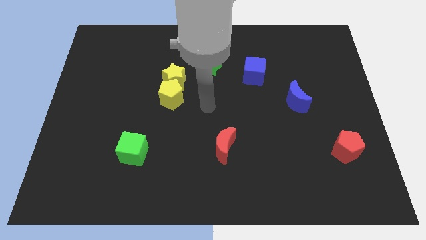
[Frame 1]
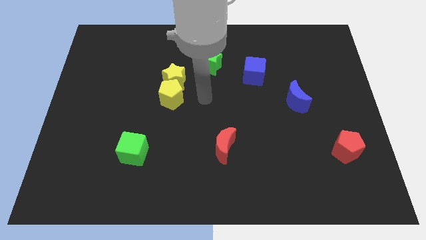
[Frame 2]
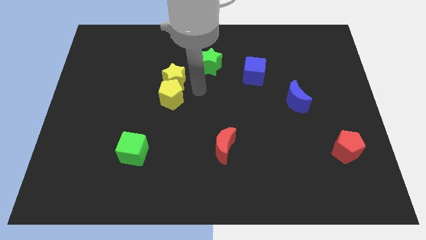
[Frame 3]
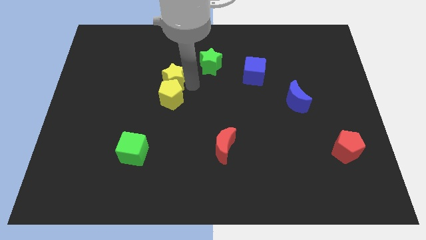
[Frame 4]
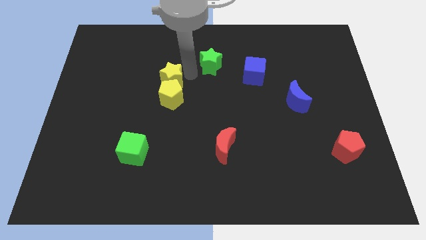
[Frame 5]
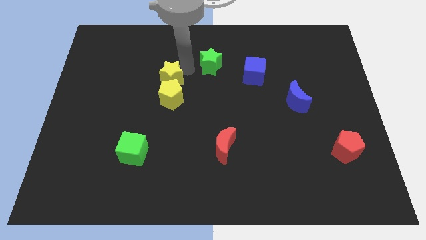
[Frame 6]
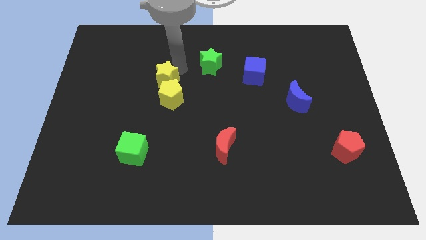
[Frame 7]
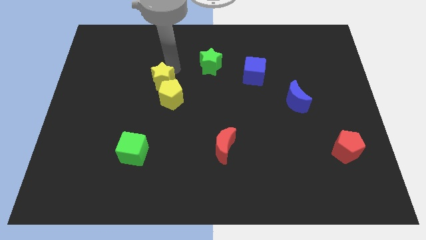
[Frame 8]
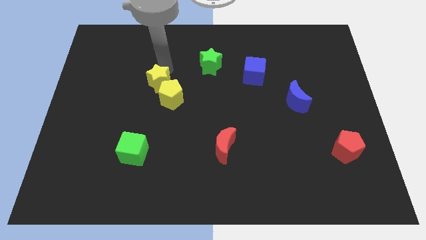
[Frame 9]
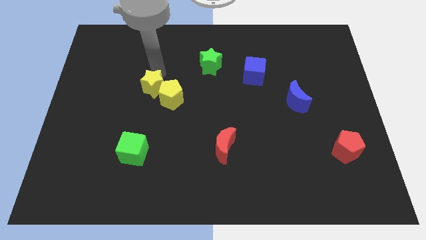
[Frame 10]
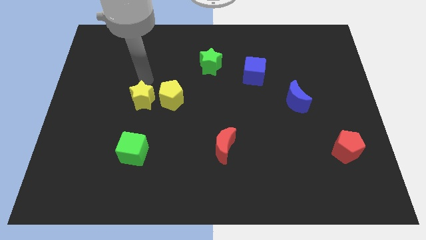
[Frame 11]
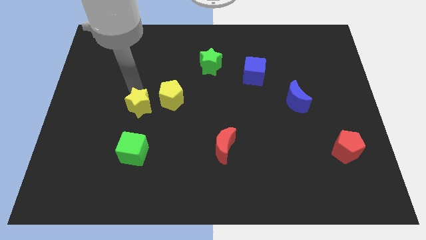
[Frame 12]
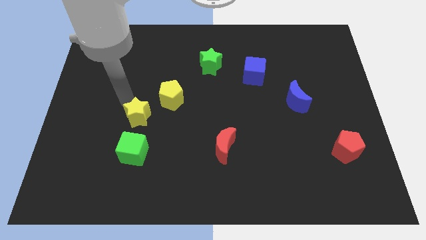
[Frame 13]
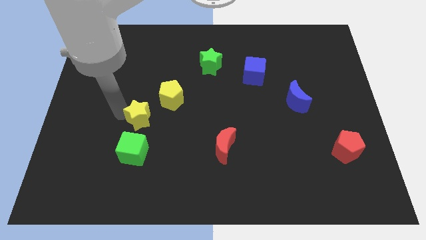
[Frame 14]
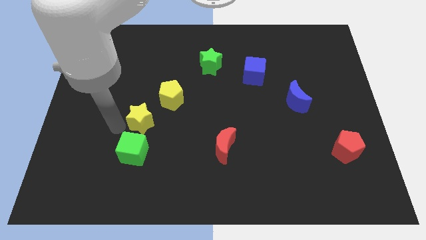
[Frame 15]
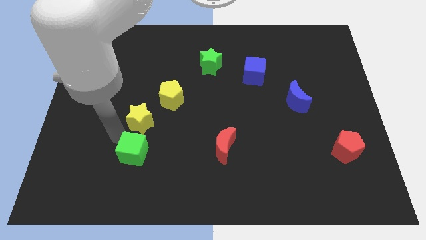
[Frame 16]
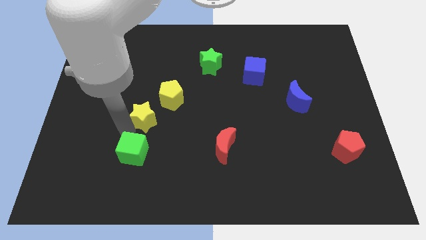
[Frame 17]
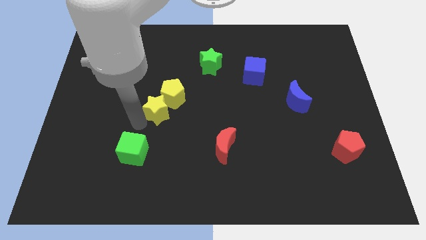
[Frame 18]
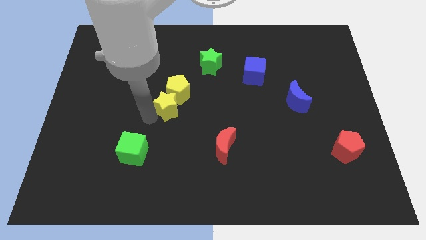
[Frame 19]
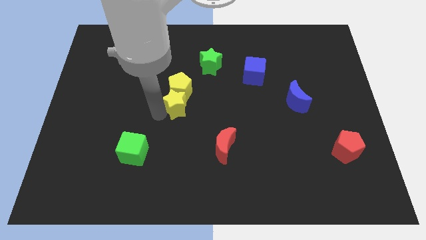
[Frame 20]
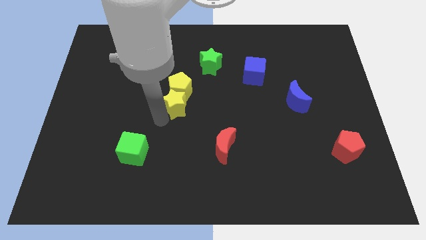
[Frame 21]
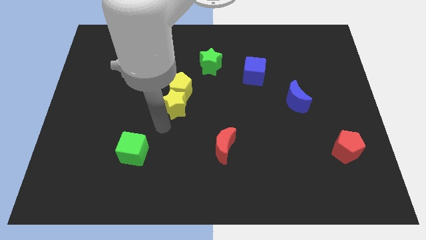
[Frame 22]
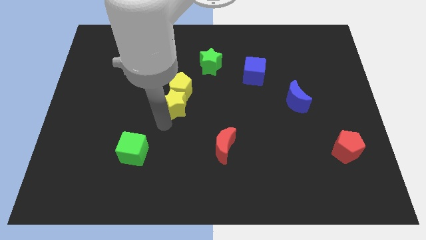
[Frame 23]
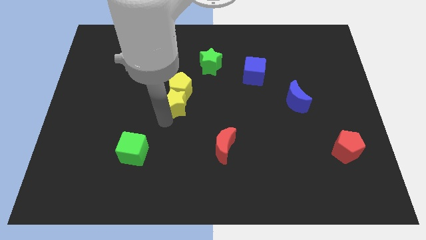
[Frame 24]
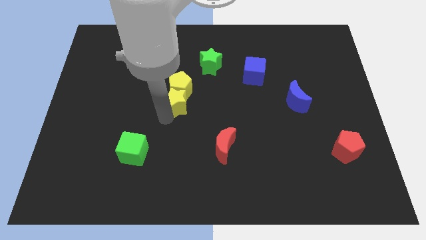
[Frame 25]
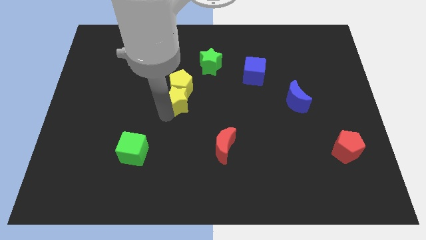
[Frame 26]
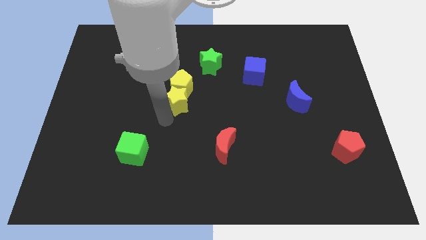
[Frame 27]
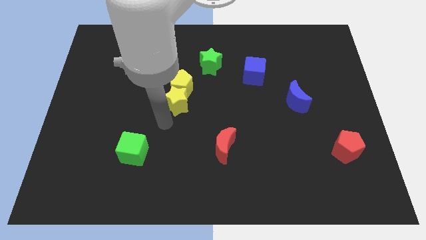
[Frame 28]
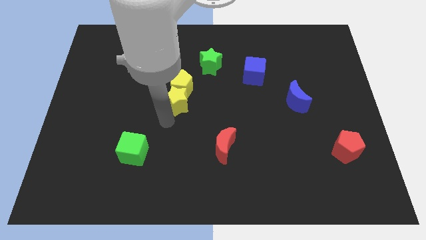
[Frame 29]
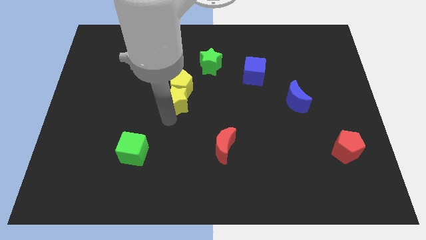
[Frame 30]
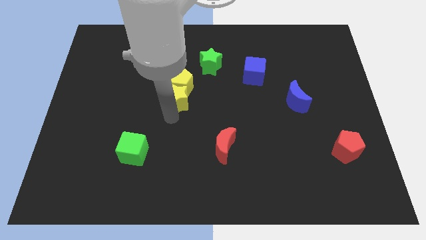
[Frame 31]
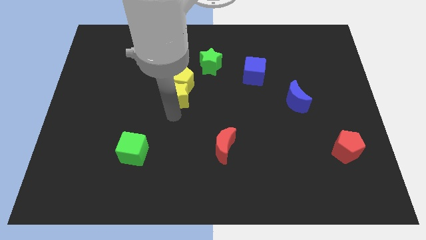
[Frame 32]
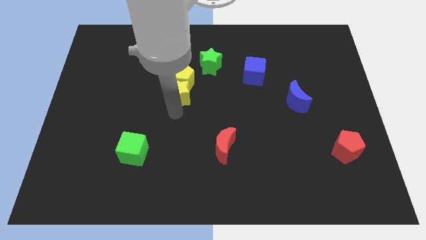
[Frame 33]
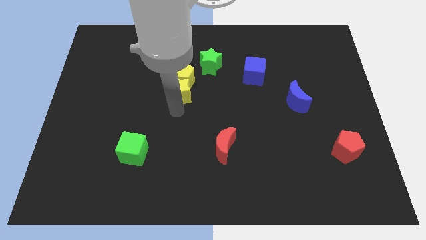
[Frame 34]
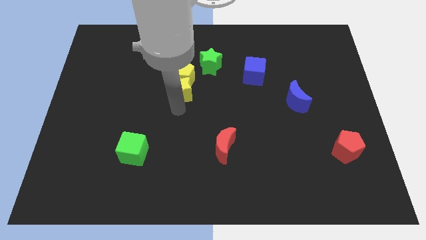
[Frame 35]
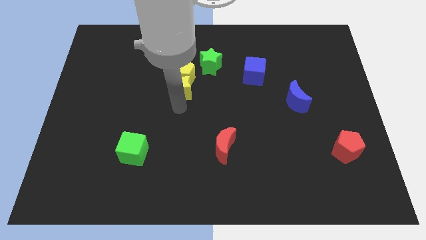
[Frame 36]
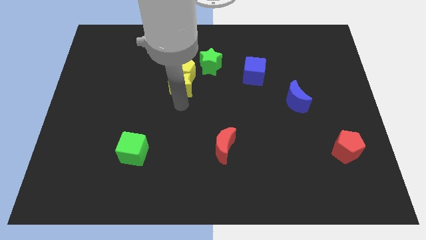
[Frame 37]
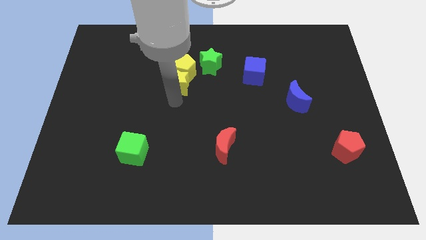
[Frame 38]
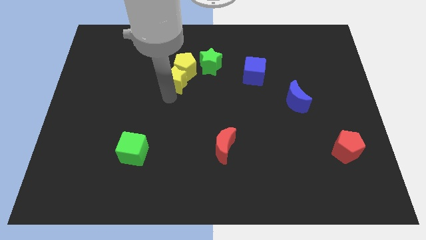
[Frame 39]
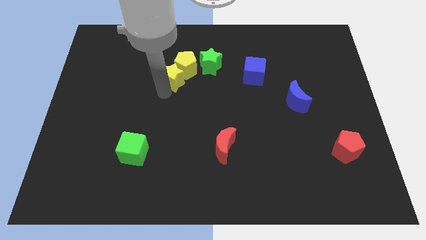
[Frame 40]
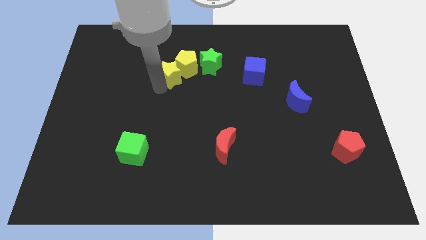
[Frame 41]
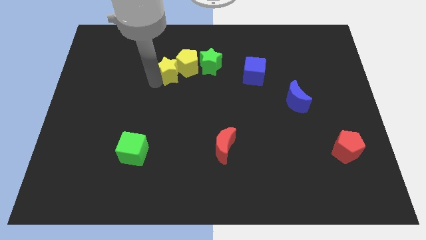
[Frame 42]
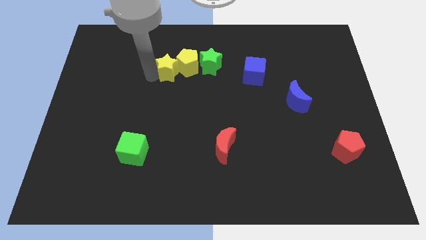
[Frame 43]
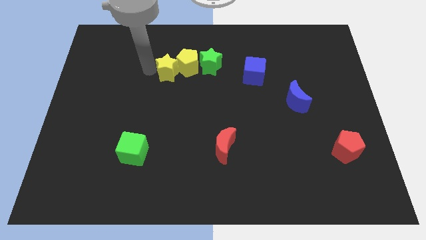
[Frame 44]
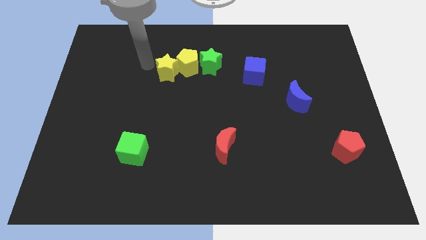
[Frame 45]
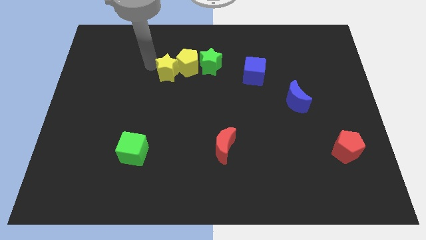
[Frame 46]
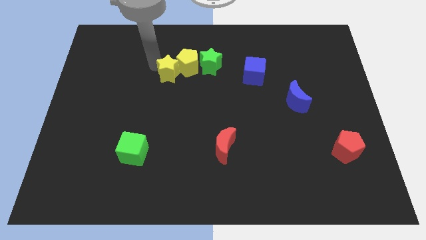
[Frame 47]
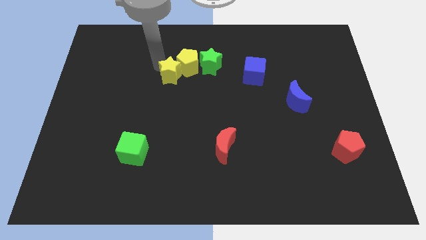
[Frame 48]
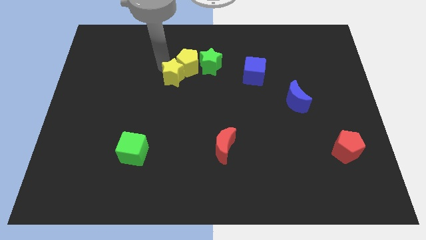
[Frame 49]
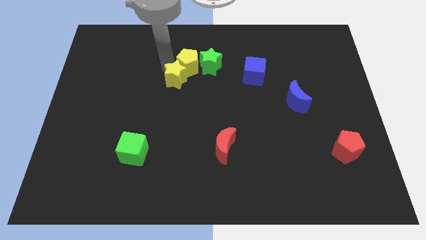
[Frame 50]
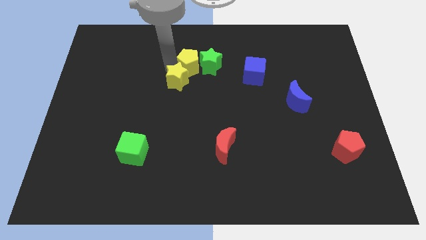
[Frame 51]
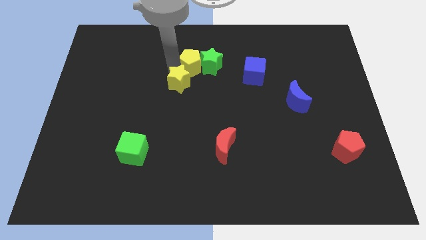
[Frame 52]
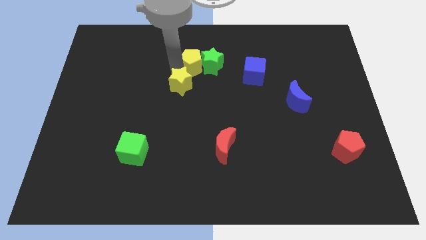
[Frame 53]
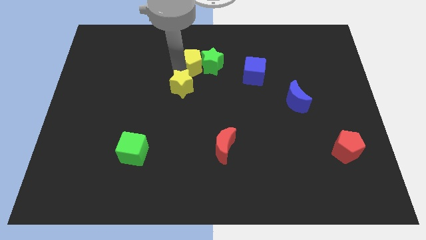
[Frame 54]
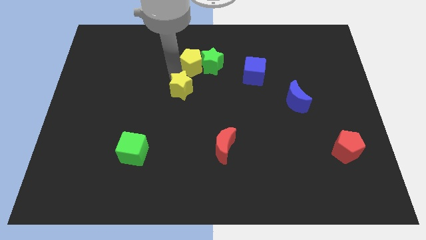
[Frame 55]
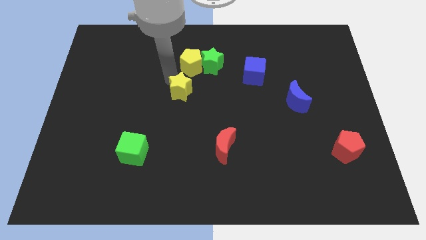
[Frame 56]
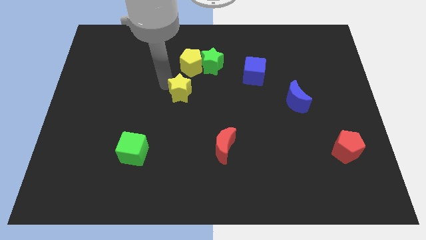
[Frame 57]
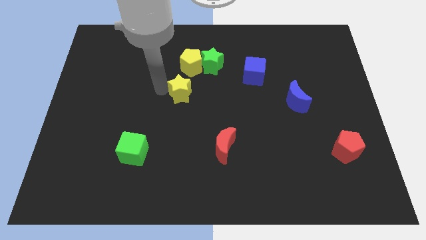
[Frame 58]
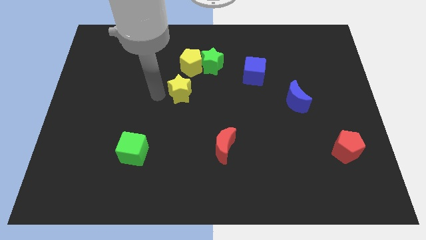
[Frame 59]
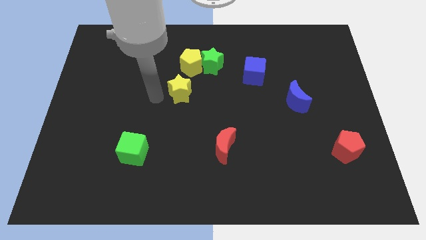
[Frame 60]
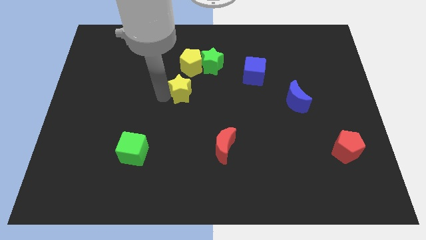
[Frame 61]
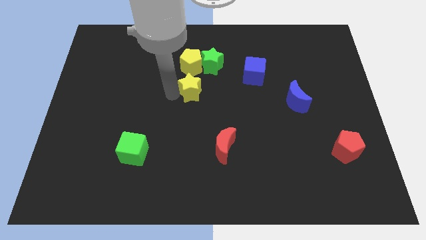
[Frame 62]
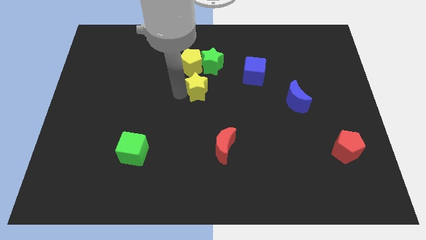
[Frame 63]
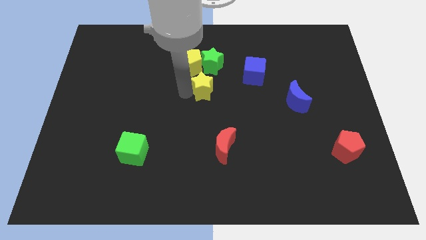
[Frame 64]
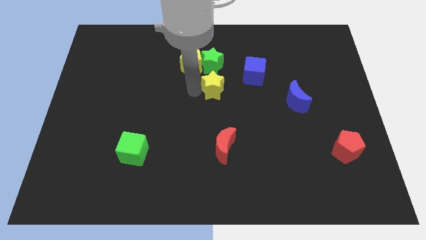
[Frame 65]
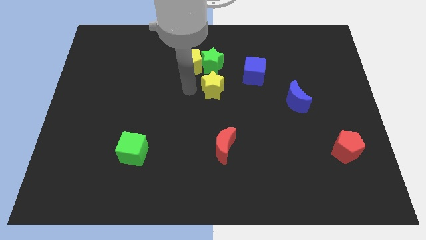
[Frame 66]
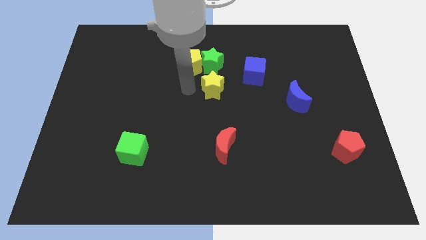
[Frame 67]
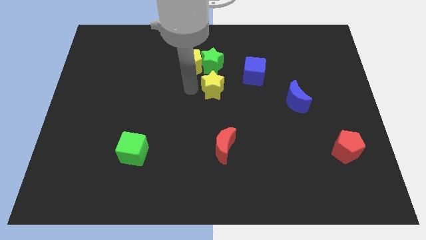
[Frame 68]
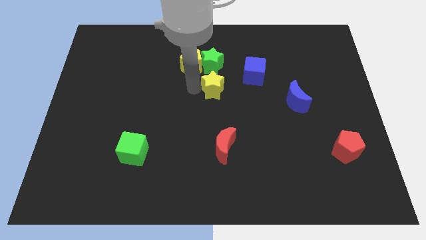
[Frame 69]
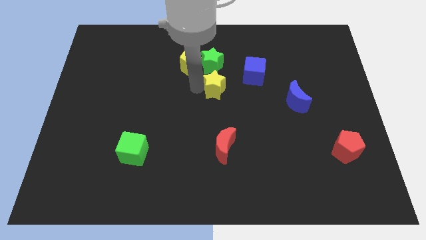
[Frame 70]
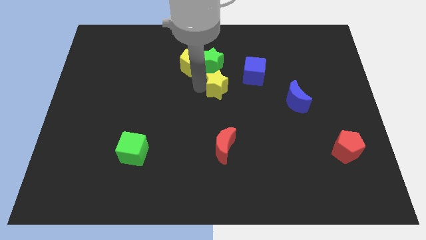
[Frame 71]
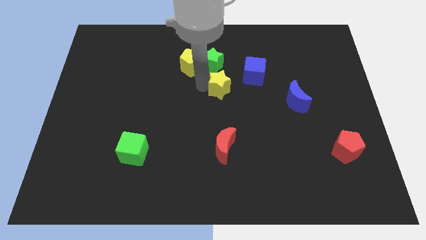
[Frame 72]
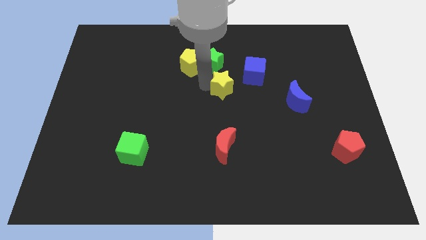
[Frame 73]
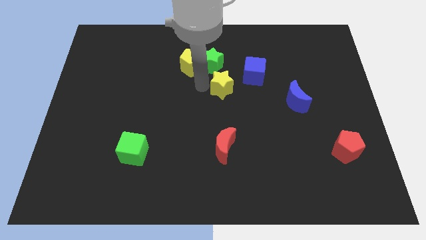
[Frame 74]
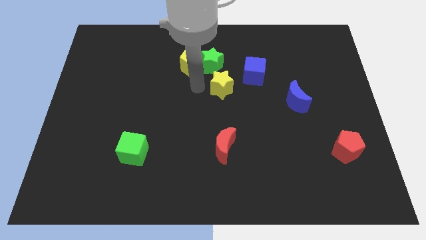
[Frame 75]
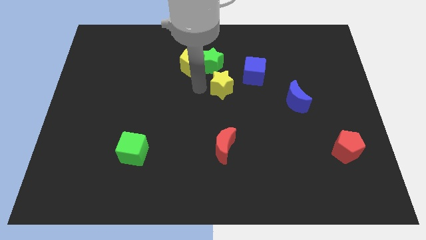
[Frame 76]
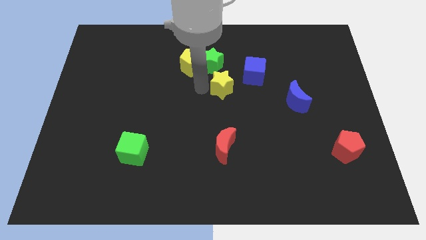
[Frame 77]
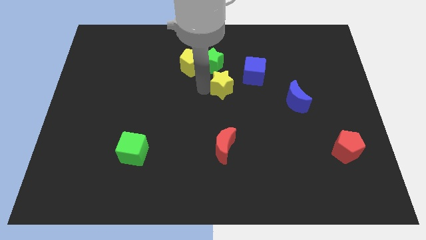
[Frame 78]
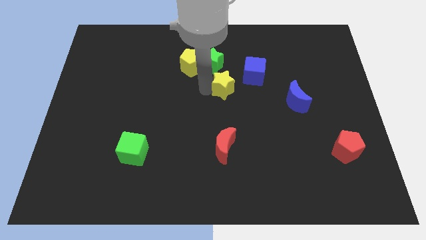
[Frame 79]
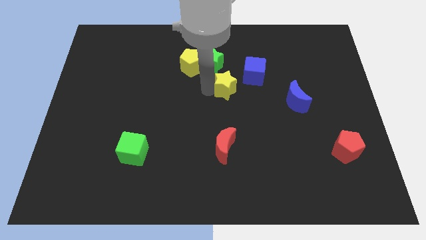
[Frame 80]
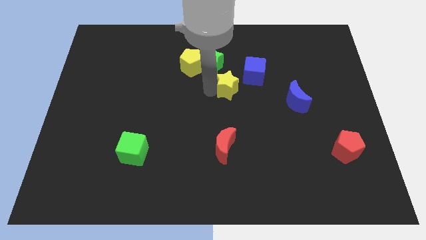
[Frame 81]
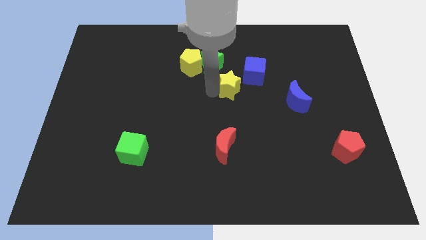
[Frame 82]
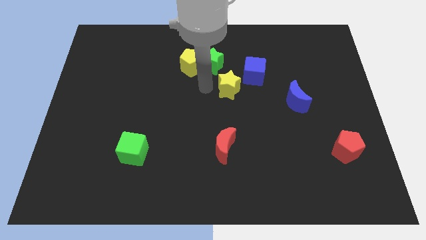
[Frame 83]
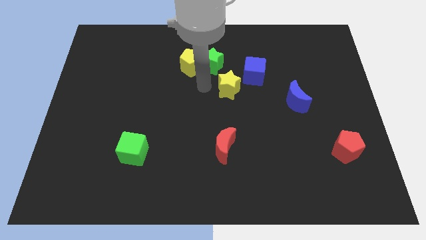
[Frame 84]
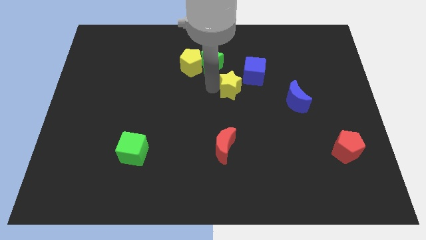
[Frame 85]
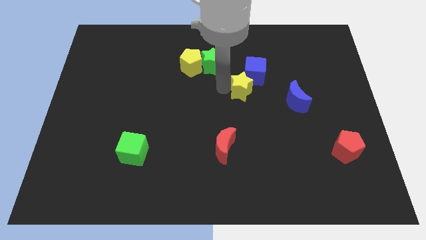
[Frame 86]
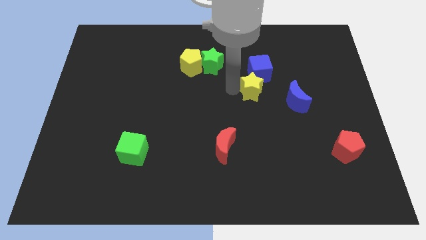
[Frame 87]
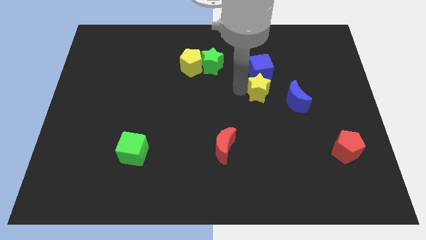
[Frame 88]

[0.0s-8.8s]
slide the yellow star to the right
